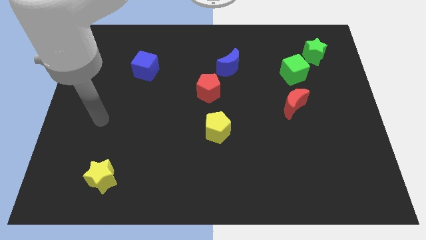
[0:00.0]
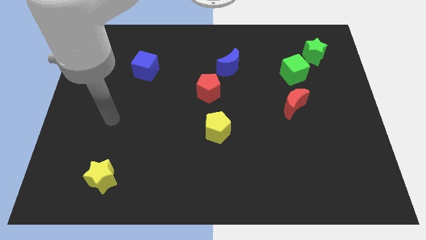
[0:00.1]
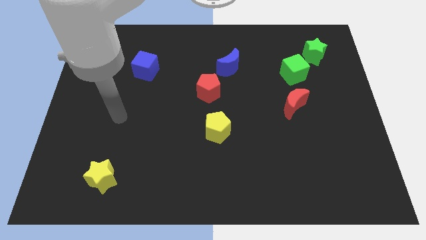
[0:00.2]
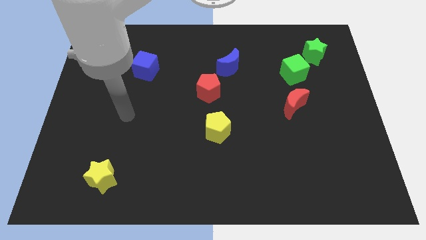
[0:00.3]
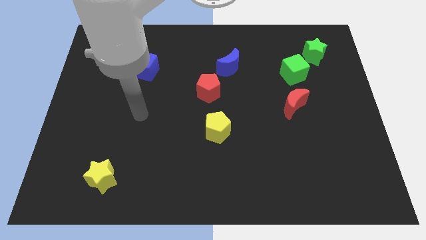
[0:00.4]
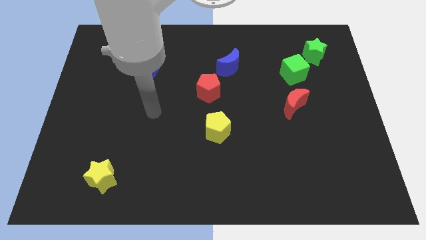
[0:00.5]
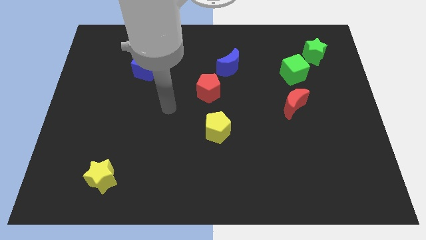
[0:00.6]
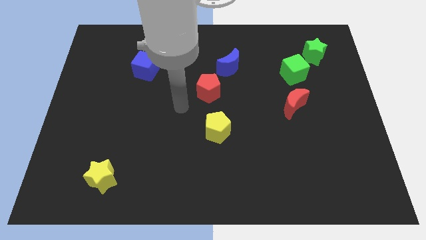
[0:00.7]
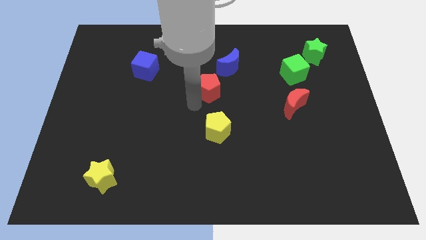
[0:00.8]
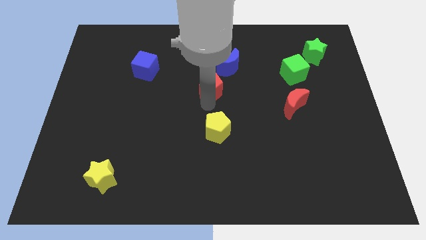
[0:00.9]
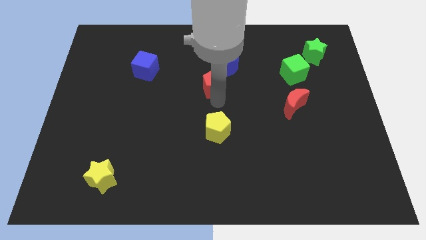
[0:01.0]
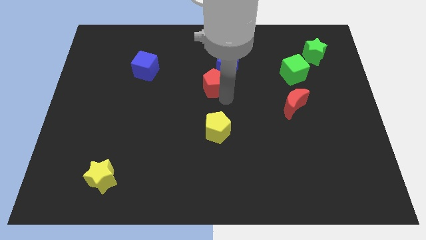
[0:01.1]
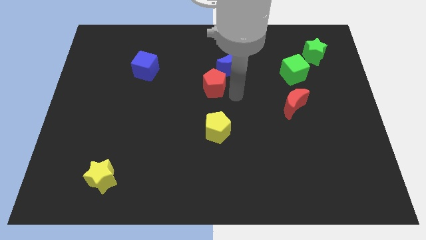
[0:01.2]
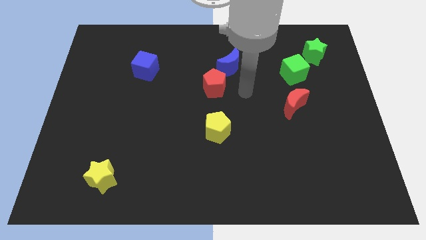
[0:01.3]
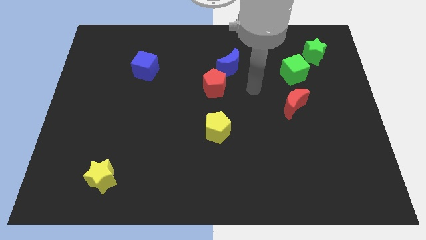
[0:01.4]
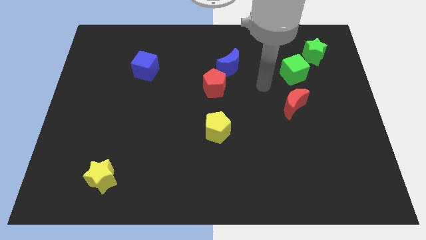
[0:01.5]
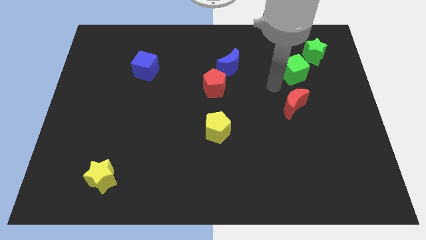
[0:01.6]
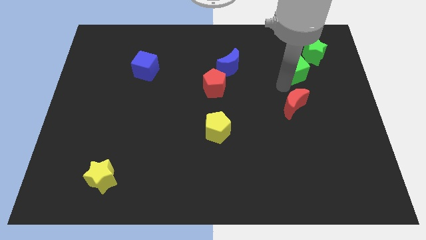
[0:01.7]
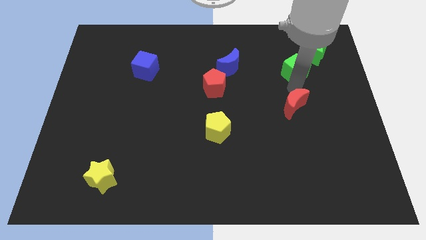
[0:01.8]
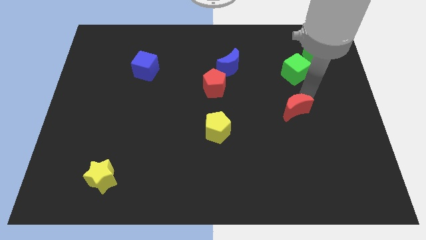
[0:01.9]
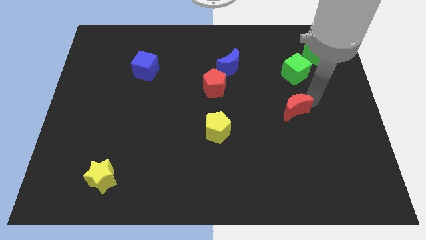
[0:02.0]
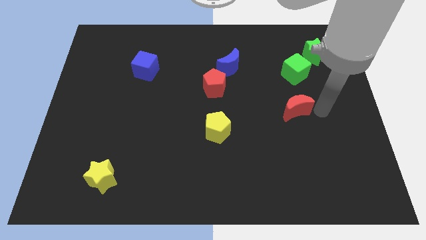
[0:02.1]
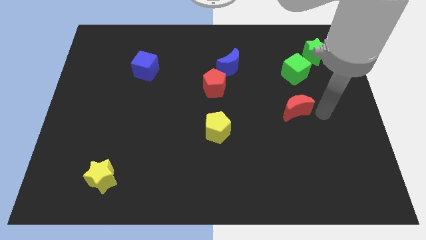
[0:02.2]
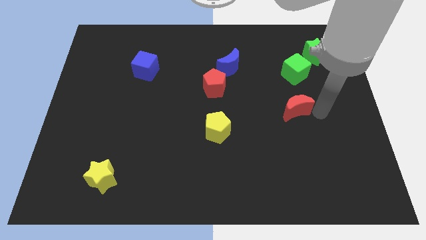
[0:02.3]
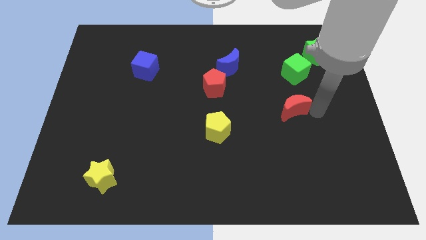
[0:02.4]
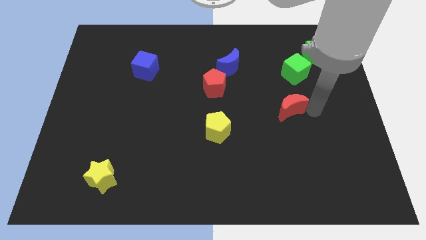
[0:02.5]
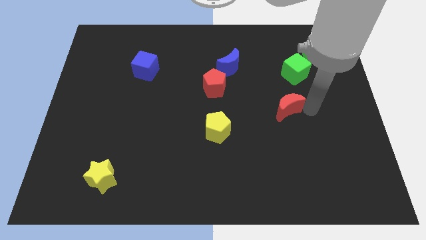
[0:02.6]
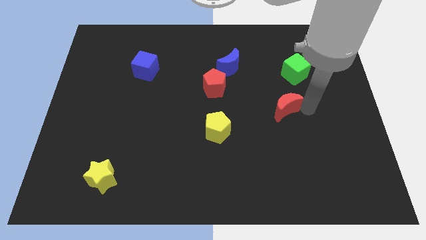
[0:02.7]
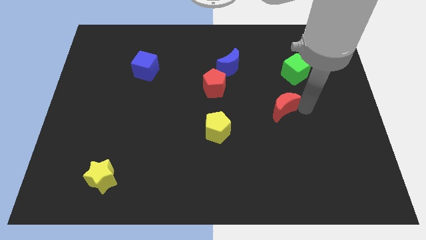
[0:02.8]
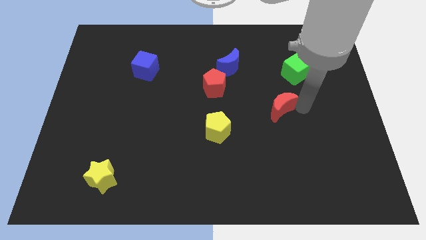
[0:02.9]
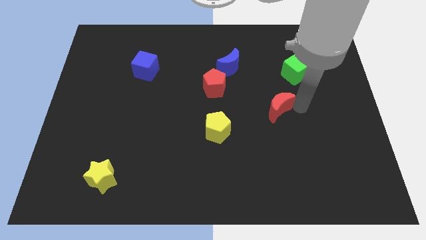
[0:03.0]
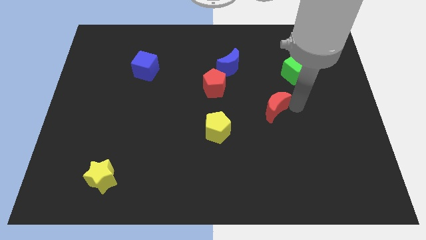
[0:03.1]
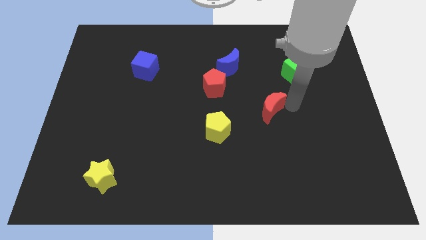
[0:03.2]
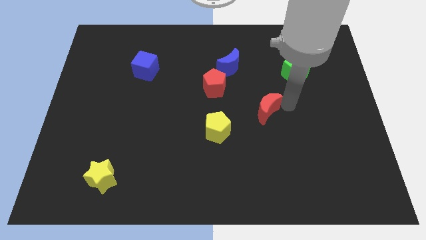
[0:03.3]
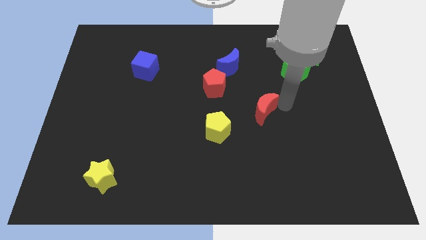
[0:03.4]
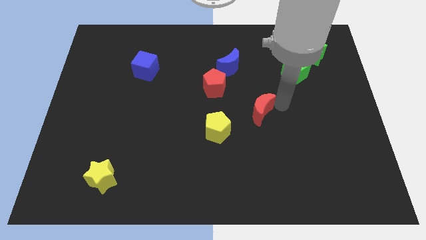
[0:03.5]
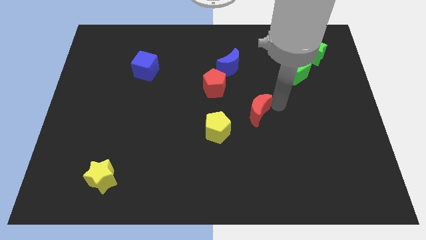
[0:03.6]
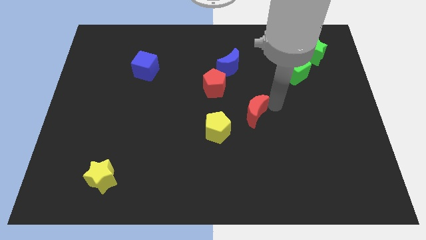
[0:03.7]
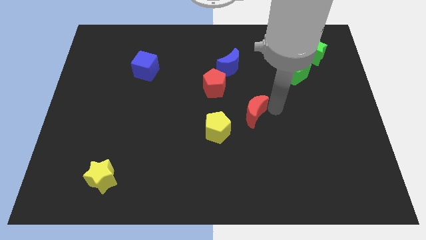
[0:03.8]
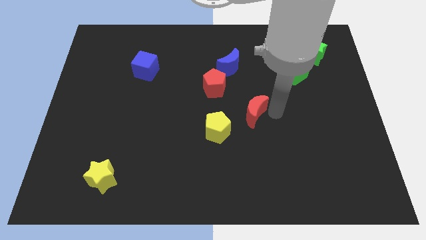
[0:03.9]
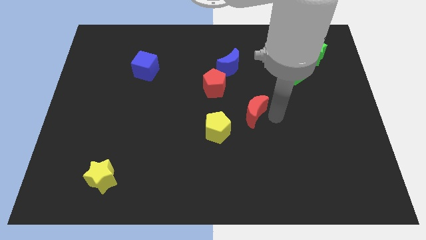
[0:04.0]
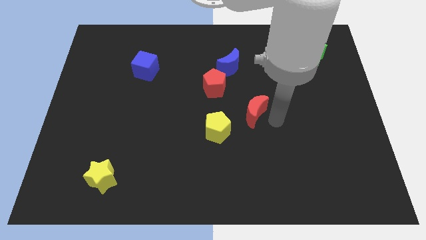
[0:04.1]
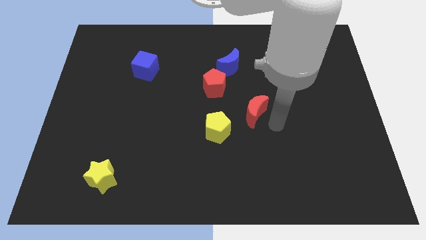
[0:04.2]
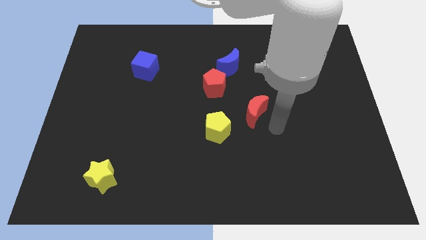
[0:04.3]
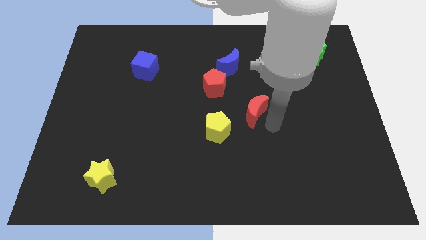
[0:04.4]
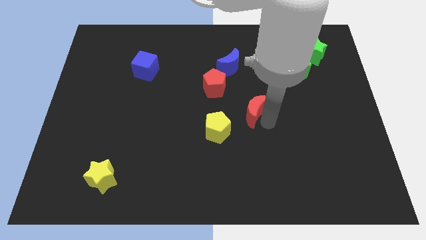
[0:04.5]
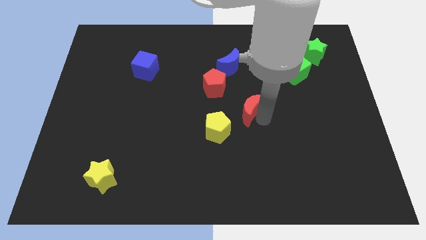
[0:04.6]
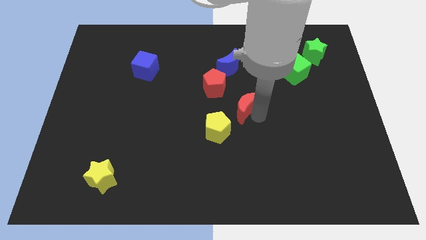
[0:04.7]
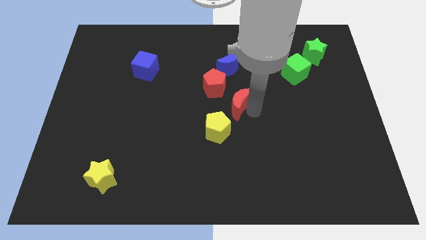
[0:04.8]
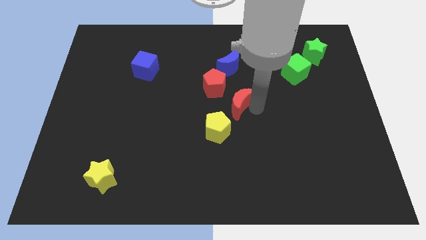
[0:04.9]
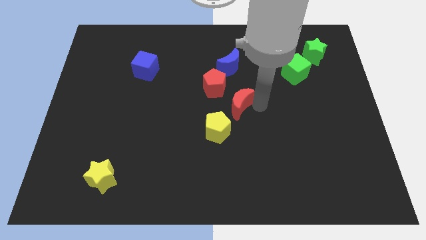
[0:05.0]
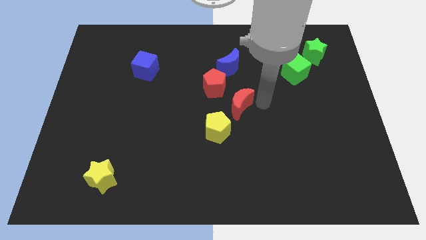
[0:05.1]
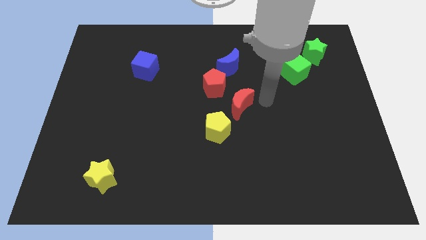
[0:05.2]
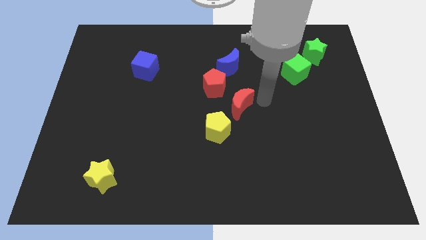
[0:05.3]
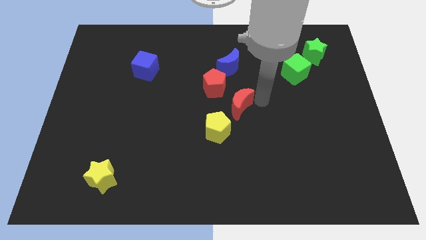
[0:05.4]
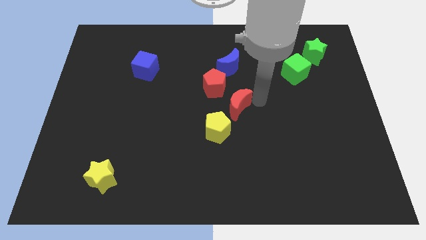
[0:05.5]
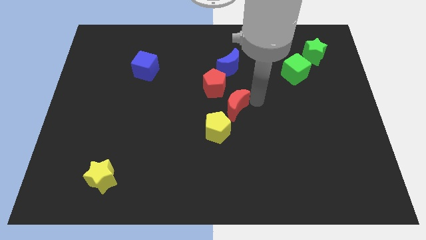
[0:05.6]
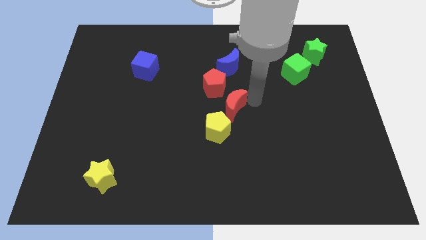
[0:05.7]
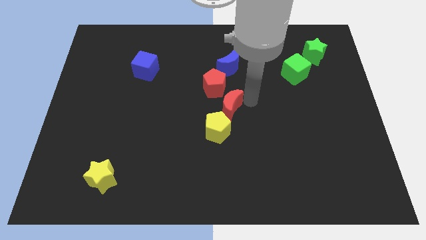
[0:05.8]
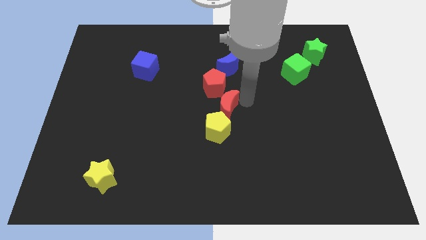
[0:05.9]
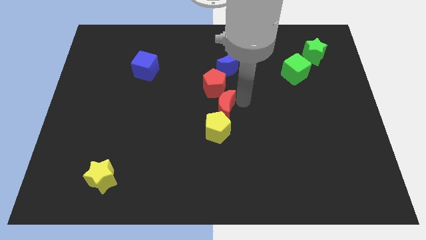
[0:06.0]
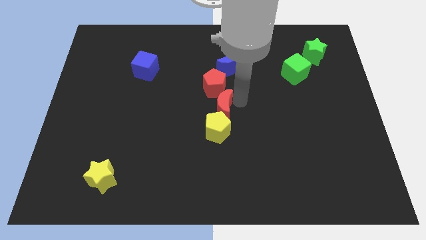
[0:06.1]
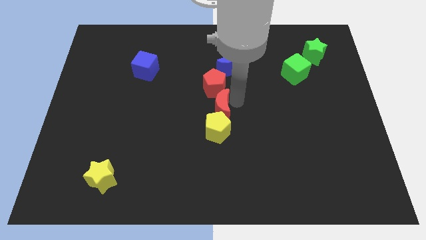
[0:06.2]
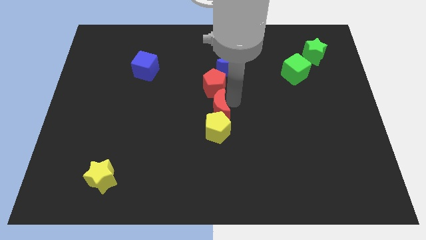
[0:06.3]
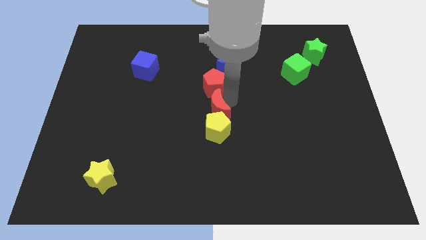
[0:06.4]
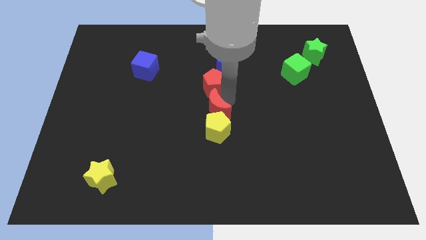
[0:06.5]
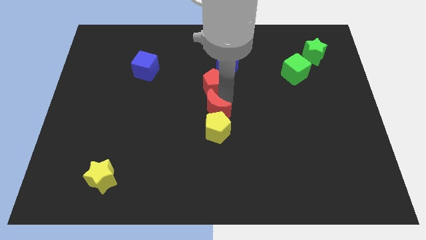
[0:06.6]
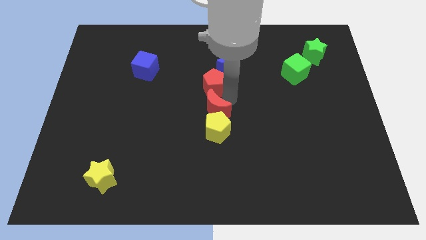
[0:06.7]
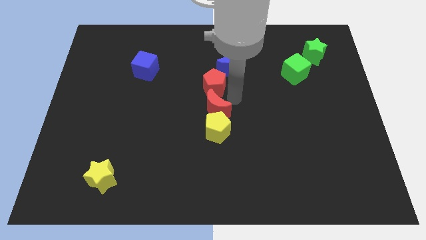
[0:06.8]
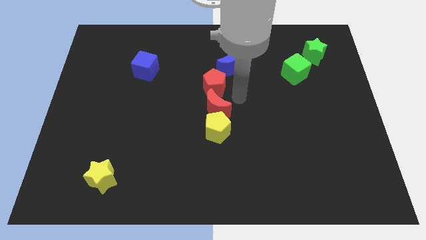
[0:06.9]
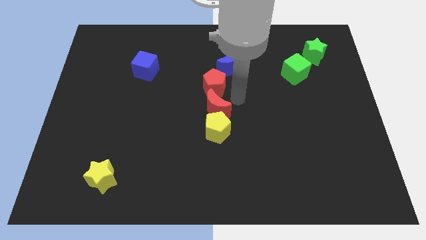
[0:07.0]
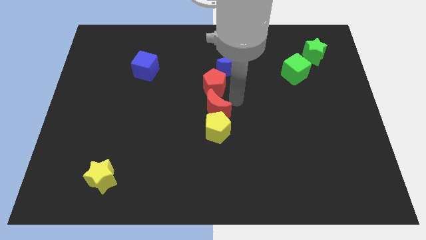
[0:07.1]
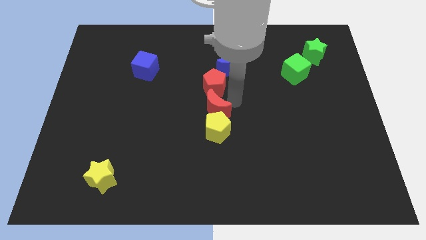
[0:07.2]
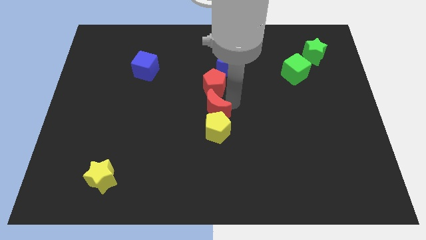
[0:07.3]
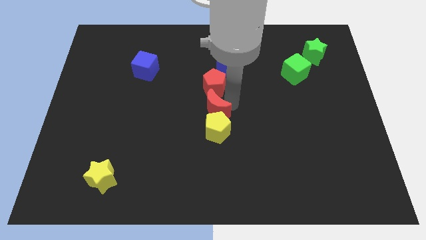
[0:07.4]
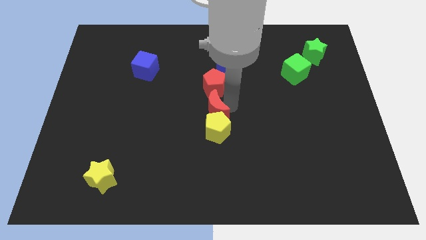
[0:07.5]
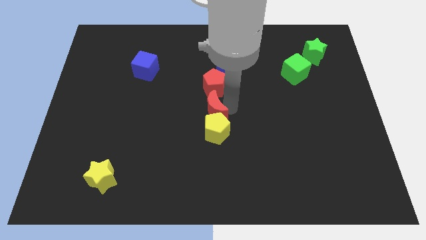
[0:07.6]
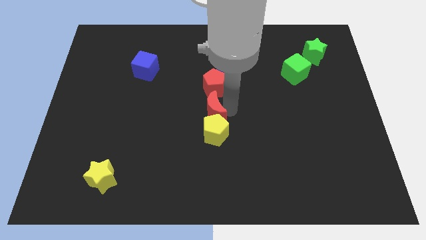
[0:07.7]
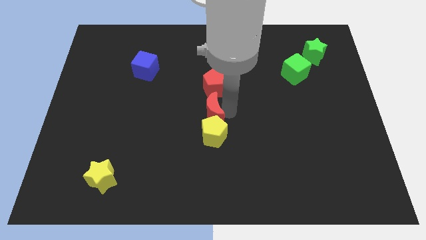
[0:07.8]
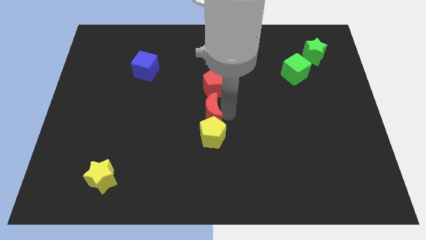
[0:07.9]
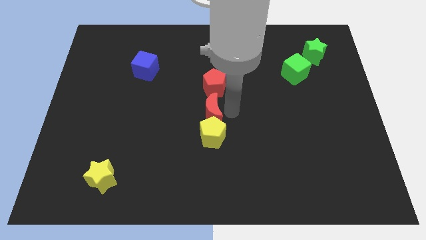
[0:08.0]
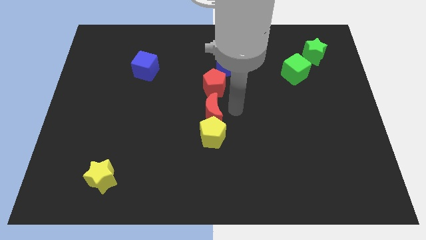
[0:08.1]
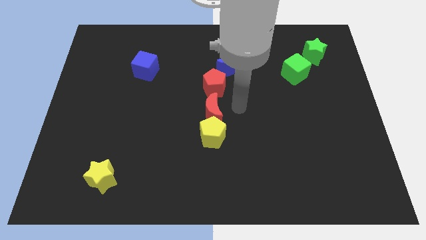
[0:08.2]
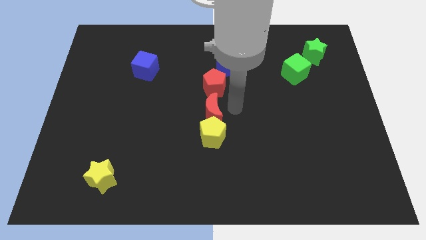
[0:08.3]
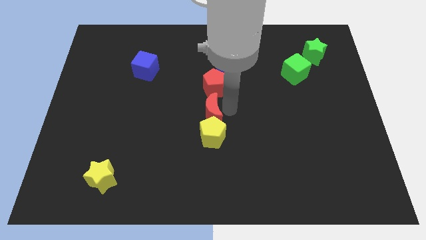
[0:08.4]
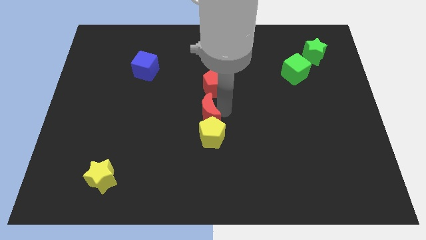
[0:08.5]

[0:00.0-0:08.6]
slide the red moon to the left
